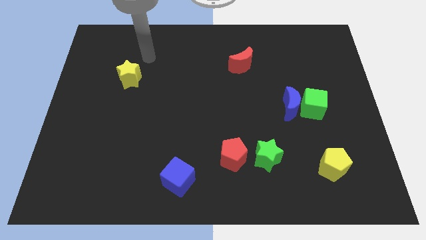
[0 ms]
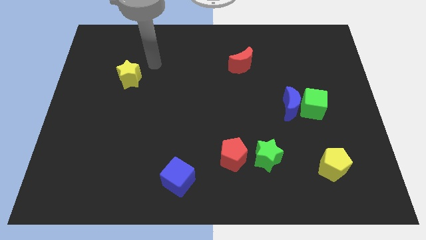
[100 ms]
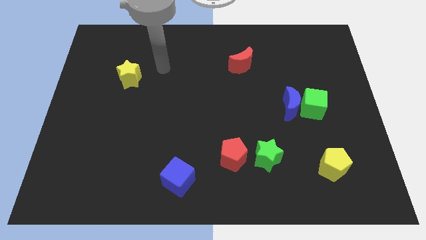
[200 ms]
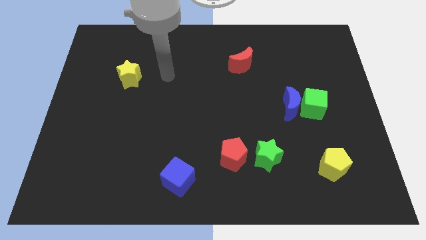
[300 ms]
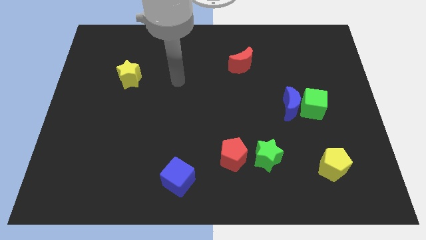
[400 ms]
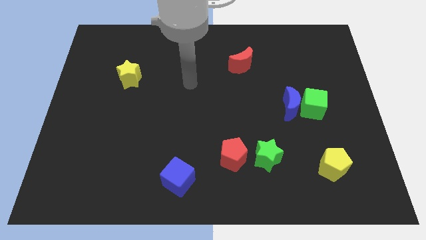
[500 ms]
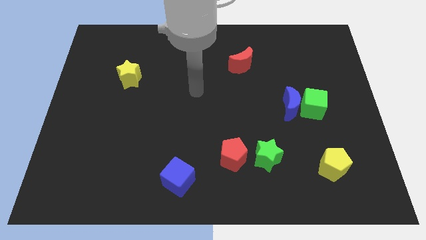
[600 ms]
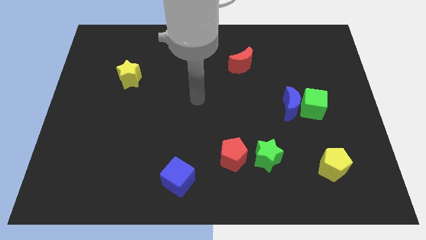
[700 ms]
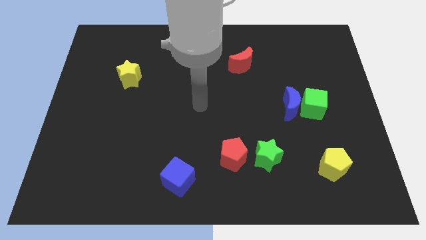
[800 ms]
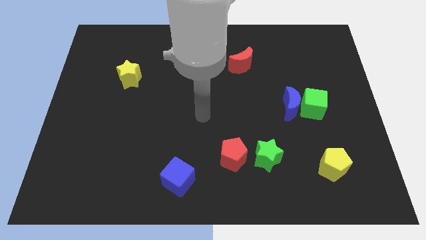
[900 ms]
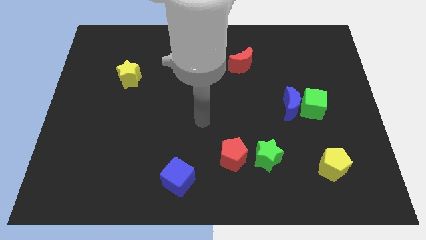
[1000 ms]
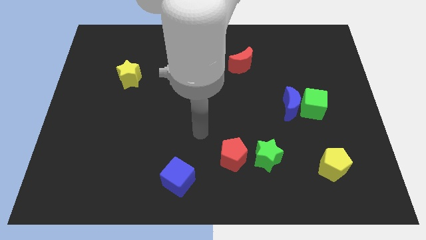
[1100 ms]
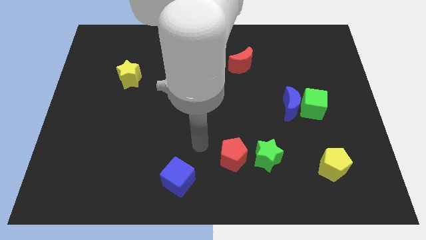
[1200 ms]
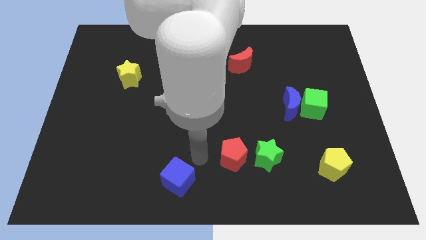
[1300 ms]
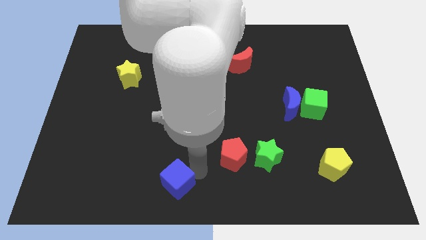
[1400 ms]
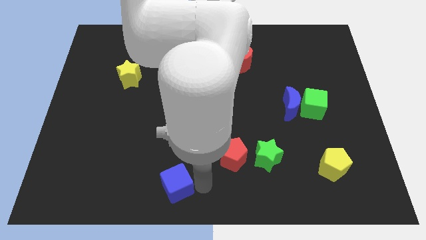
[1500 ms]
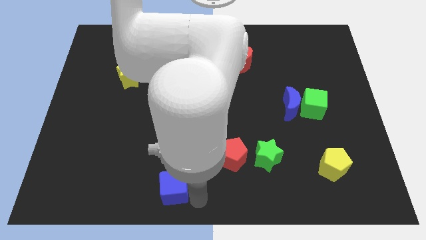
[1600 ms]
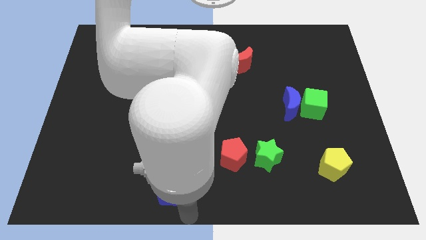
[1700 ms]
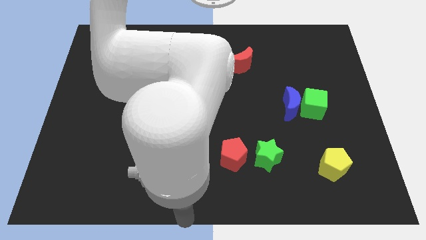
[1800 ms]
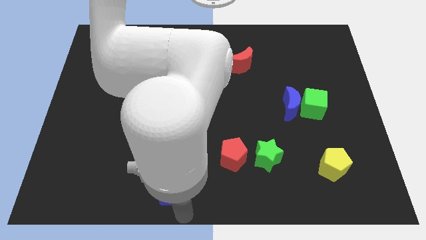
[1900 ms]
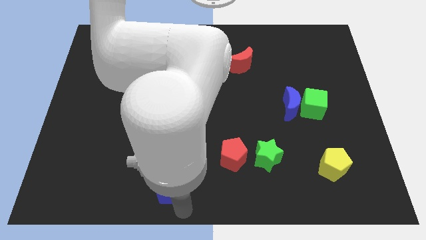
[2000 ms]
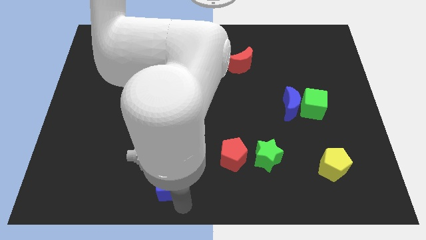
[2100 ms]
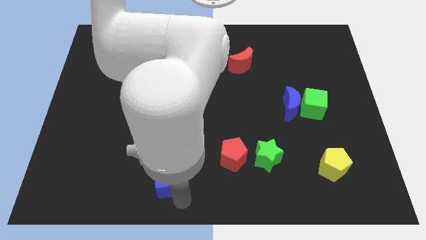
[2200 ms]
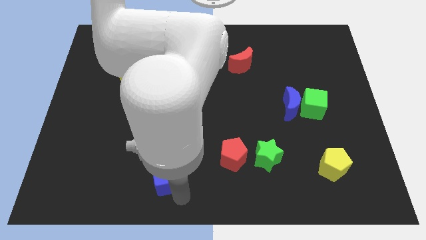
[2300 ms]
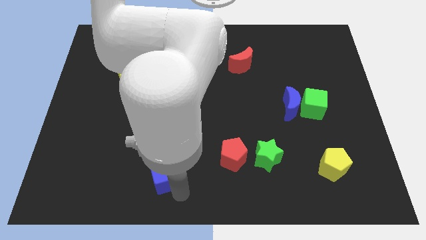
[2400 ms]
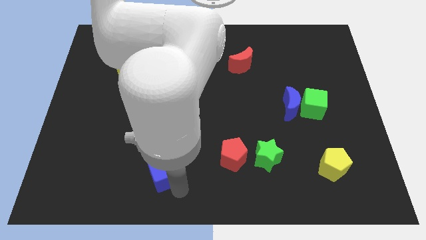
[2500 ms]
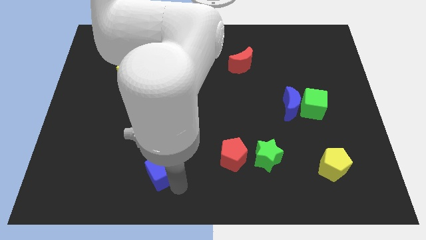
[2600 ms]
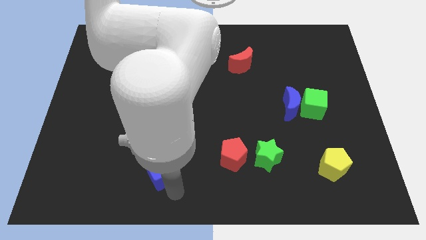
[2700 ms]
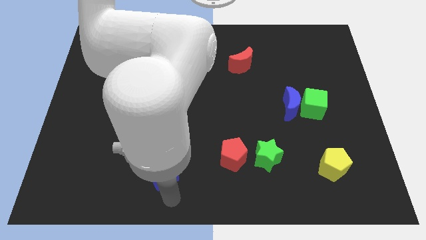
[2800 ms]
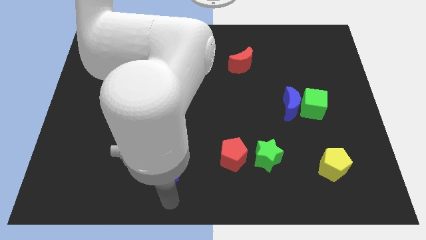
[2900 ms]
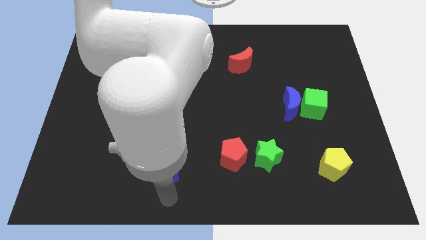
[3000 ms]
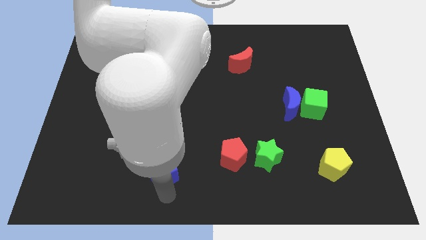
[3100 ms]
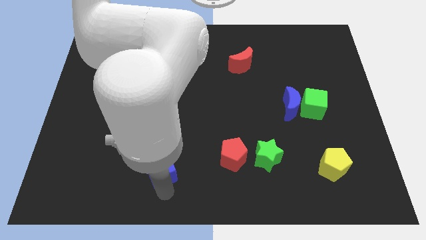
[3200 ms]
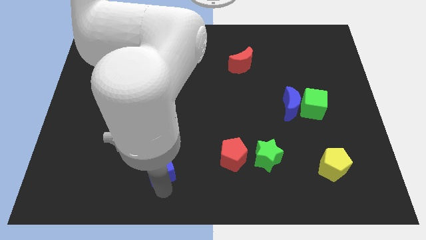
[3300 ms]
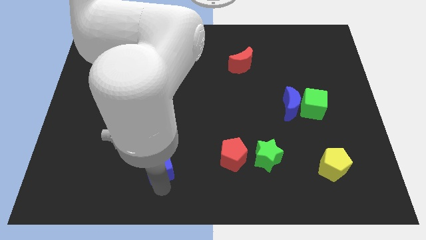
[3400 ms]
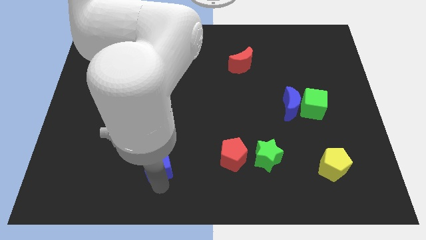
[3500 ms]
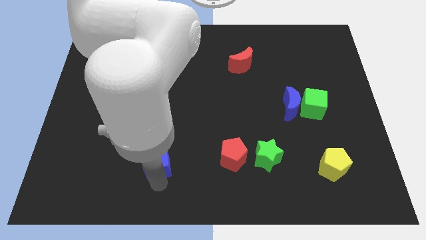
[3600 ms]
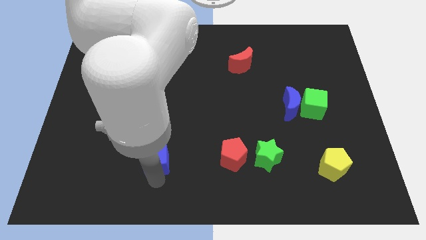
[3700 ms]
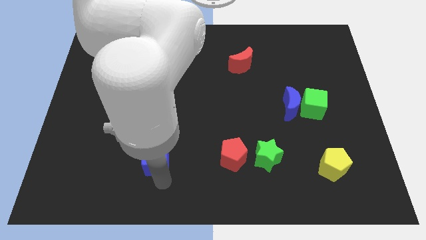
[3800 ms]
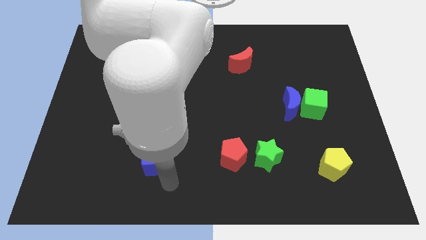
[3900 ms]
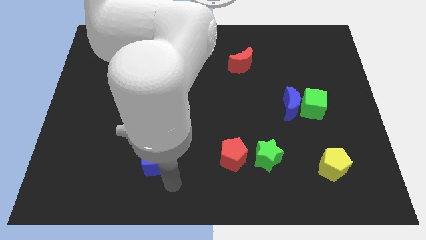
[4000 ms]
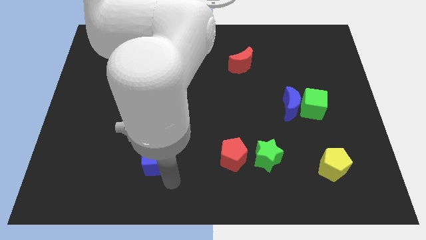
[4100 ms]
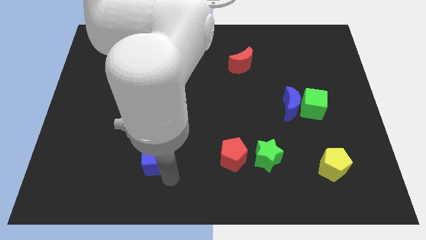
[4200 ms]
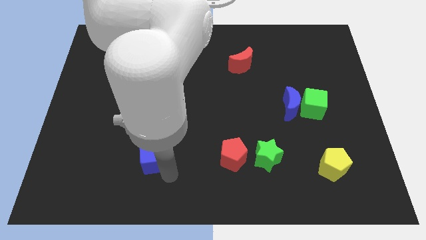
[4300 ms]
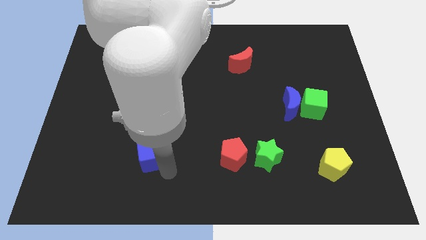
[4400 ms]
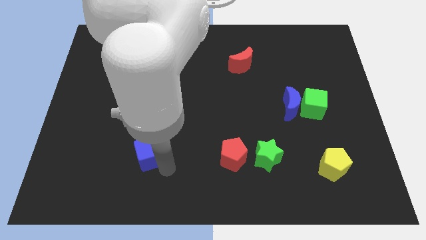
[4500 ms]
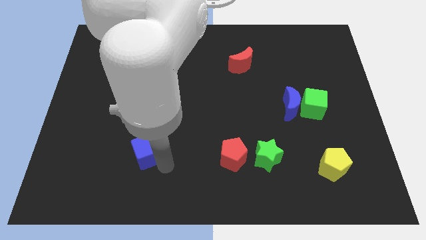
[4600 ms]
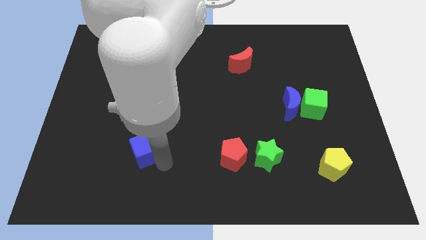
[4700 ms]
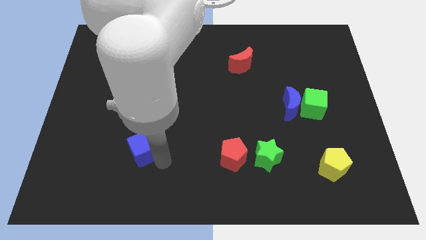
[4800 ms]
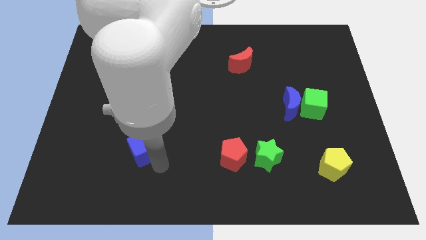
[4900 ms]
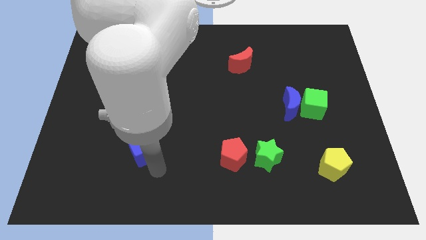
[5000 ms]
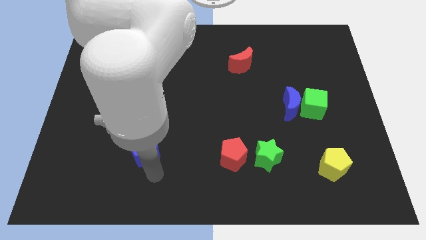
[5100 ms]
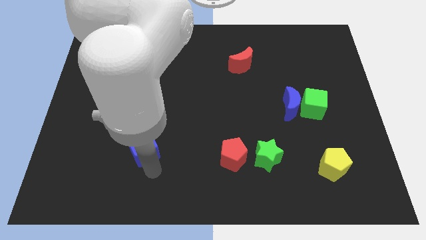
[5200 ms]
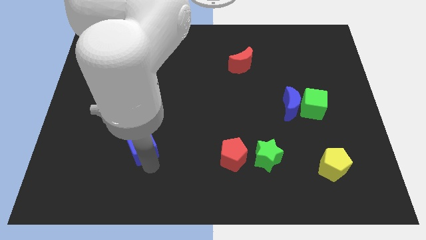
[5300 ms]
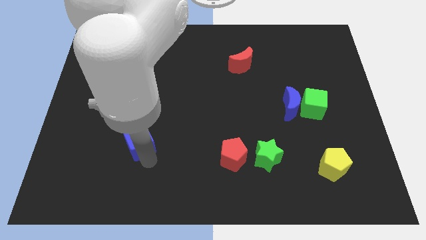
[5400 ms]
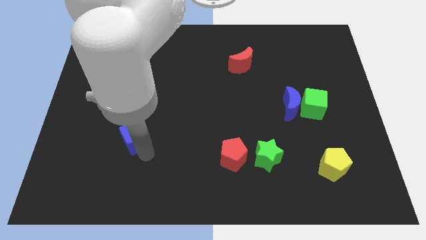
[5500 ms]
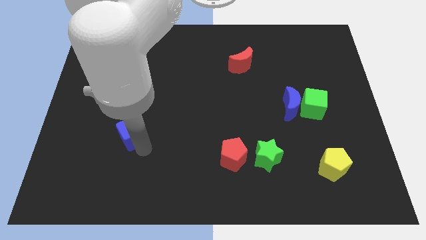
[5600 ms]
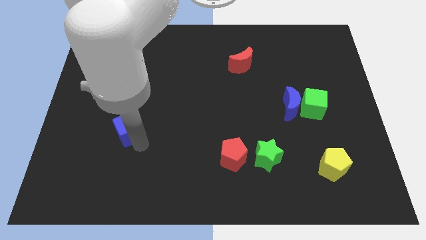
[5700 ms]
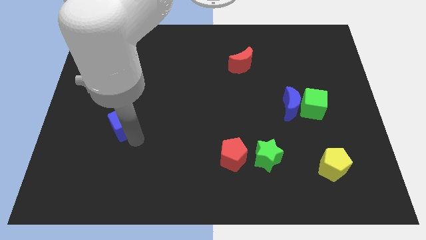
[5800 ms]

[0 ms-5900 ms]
put the blue cube to the bottom of the yellow star

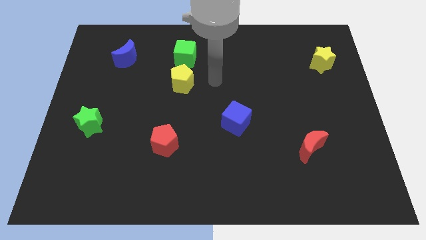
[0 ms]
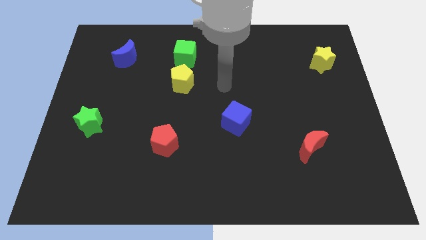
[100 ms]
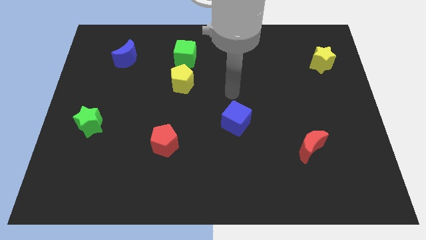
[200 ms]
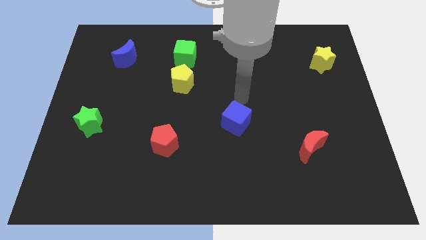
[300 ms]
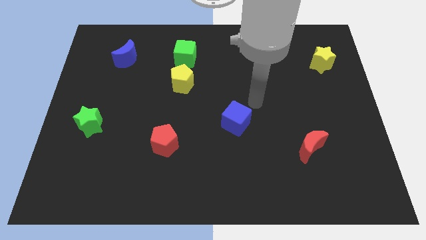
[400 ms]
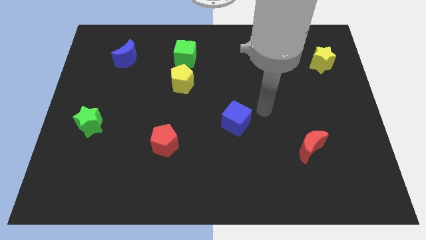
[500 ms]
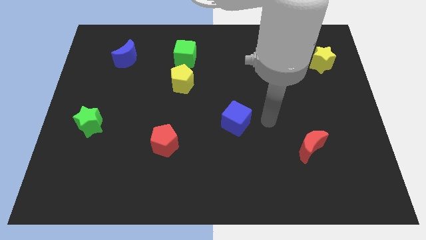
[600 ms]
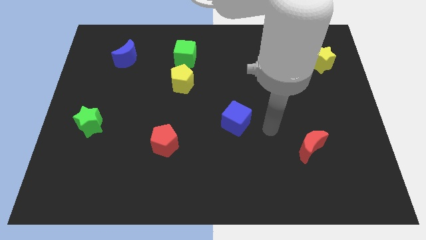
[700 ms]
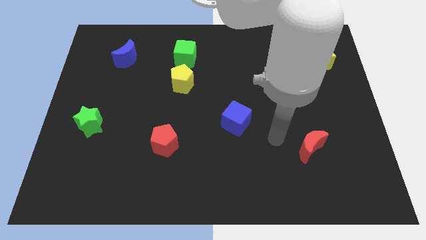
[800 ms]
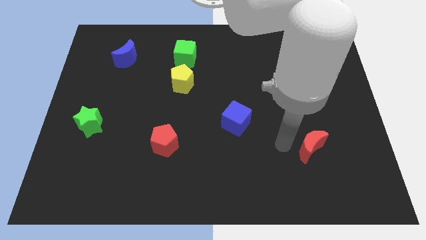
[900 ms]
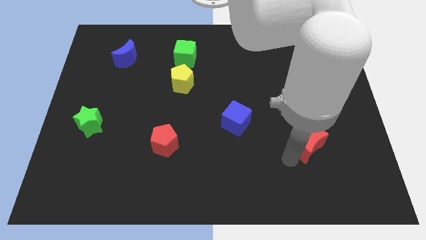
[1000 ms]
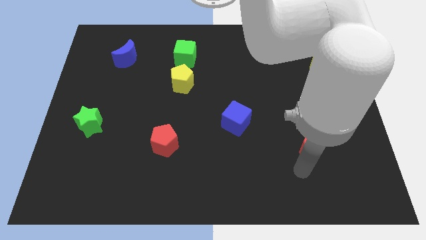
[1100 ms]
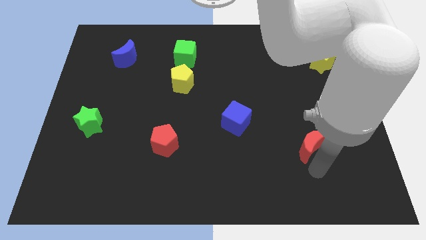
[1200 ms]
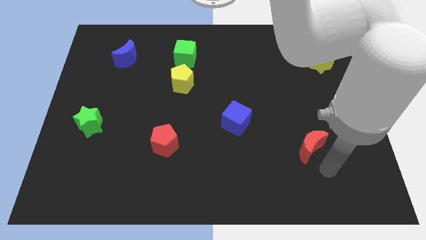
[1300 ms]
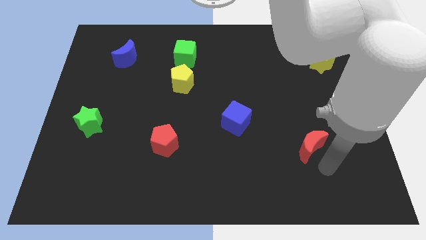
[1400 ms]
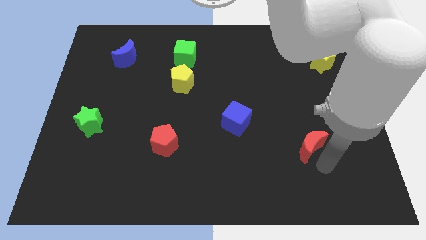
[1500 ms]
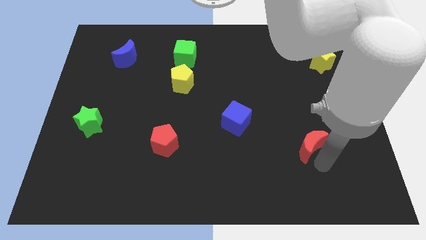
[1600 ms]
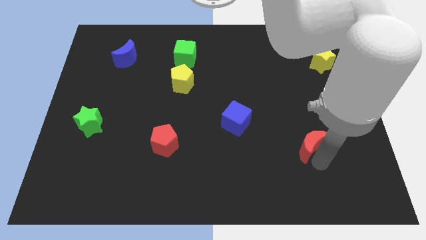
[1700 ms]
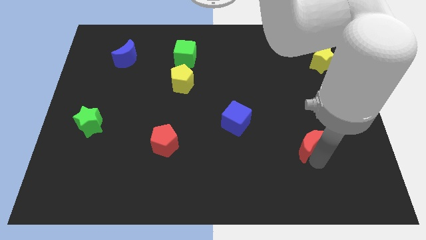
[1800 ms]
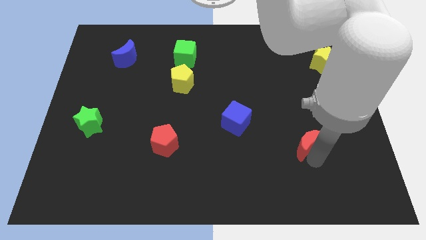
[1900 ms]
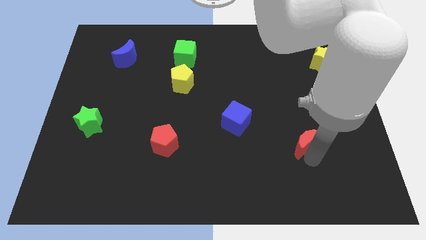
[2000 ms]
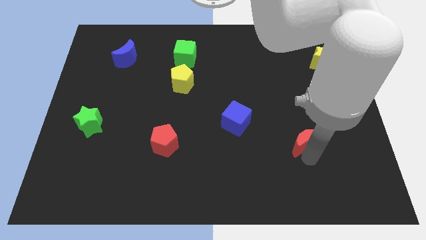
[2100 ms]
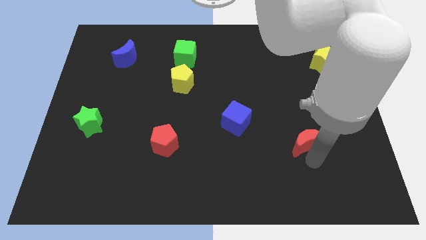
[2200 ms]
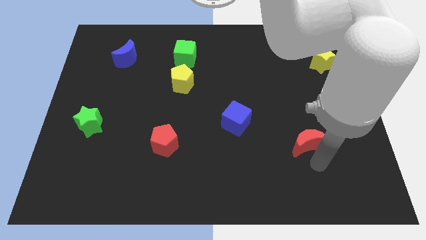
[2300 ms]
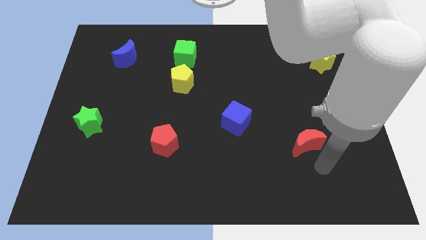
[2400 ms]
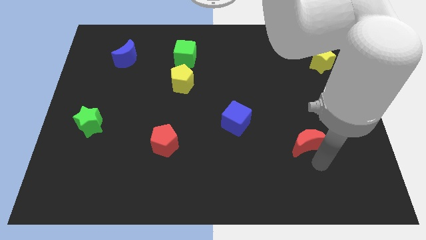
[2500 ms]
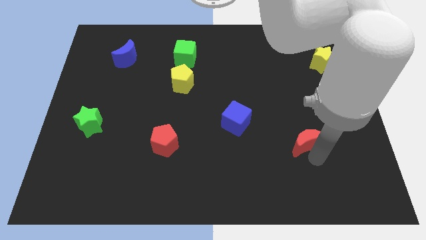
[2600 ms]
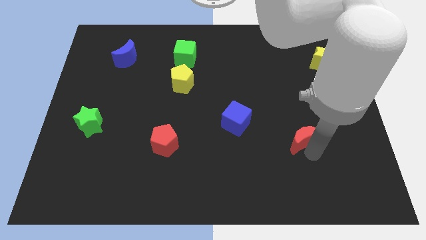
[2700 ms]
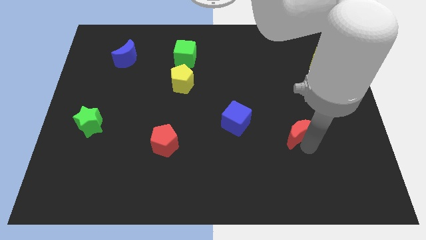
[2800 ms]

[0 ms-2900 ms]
put the red moon just right of the blue cube

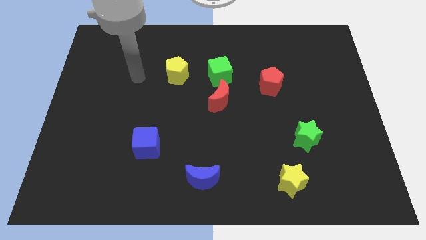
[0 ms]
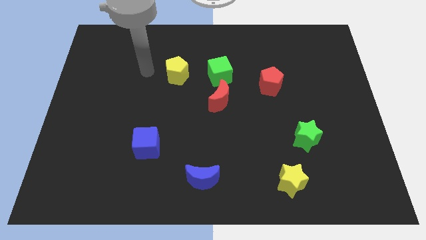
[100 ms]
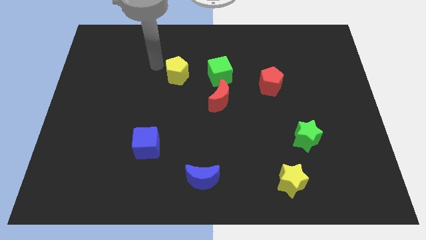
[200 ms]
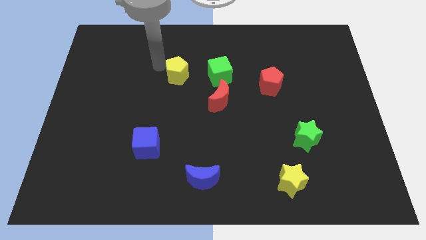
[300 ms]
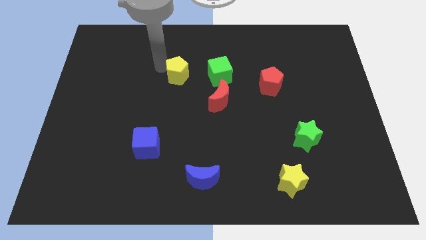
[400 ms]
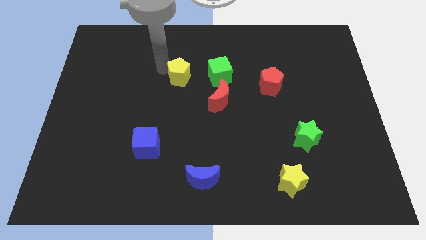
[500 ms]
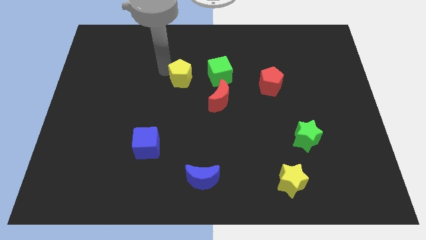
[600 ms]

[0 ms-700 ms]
push the yellow pentagon to the top left of the red moon
